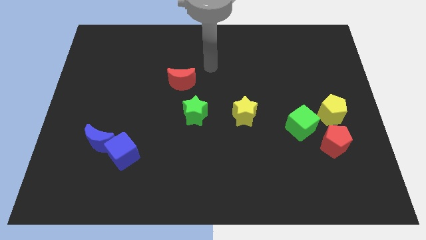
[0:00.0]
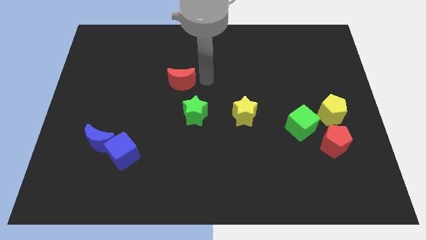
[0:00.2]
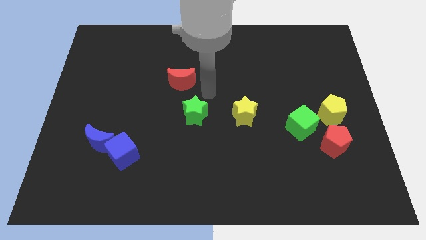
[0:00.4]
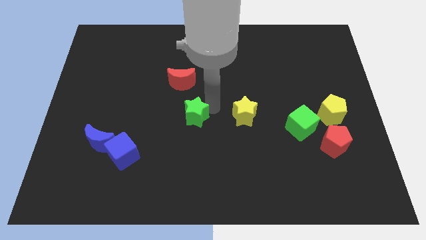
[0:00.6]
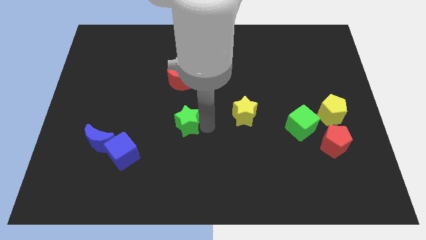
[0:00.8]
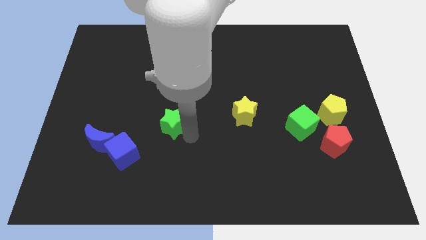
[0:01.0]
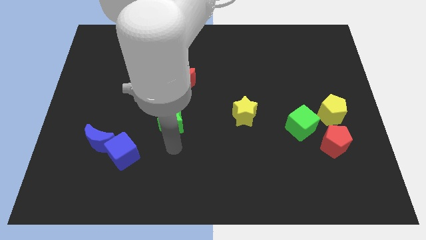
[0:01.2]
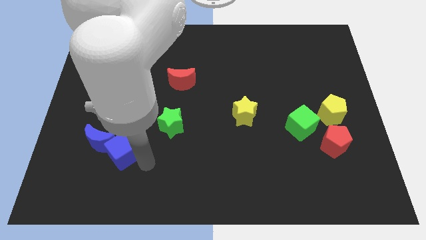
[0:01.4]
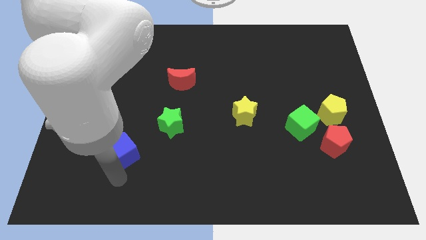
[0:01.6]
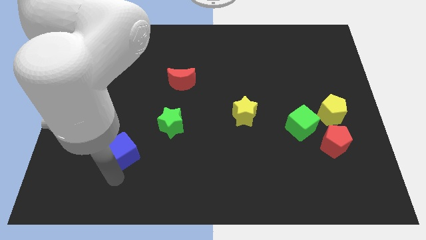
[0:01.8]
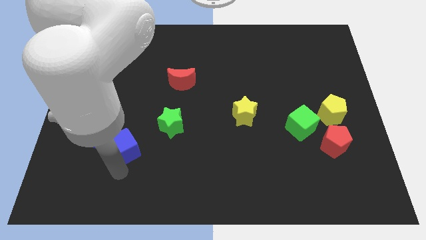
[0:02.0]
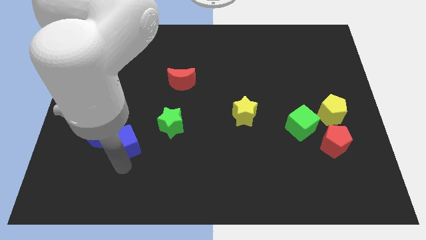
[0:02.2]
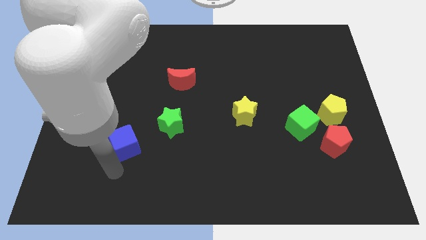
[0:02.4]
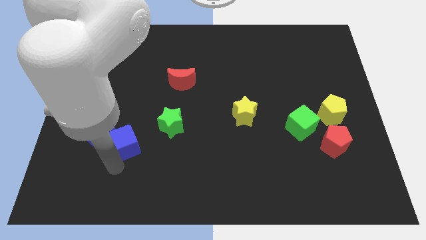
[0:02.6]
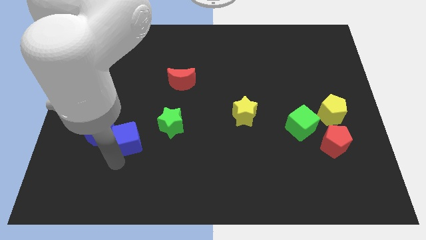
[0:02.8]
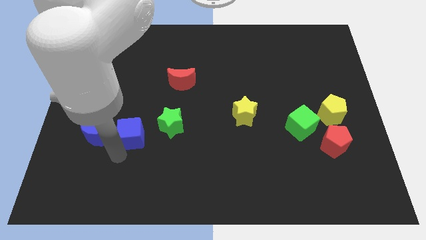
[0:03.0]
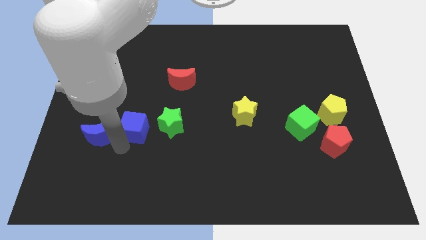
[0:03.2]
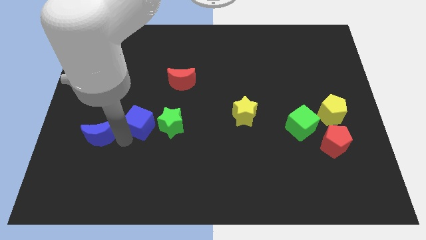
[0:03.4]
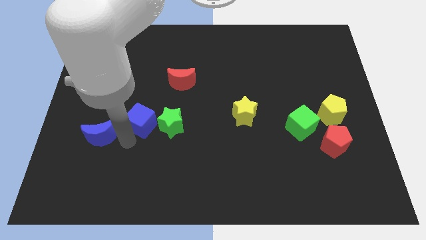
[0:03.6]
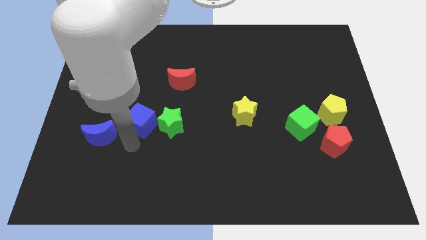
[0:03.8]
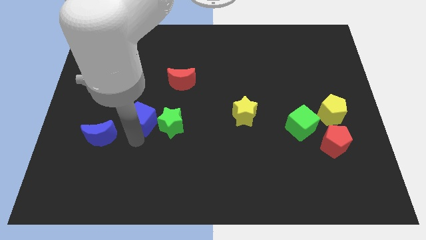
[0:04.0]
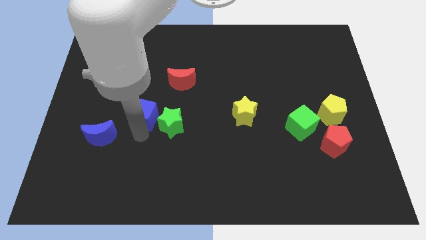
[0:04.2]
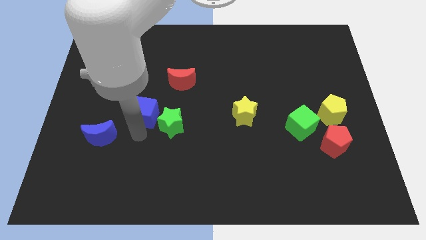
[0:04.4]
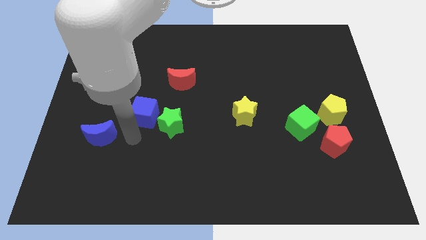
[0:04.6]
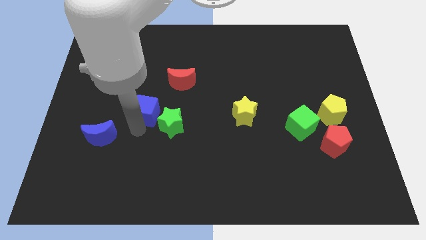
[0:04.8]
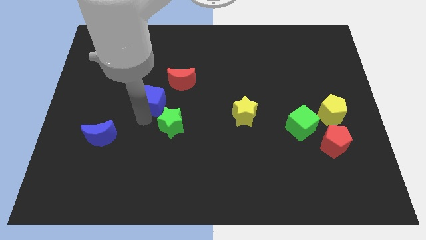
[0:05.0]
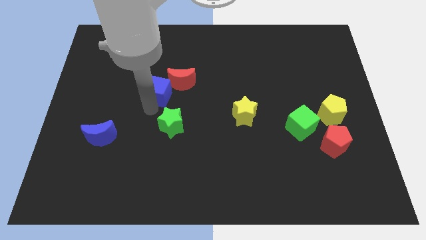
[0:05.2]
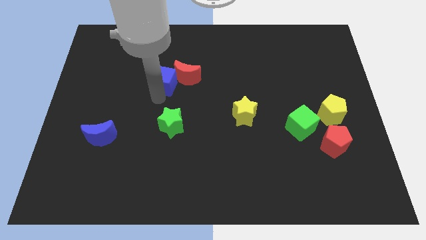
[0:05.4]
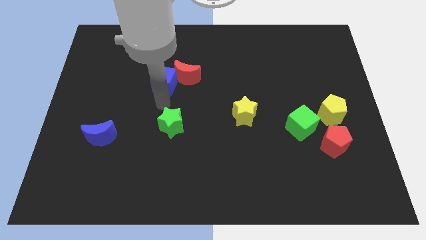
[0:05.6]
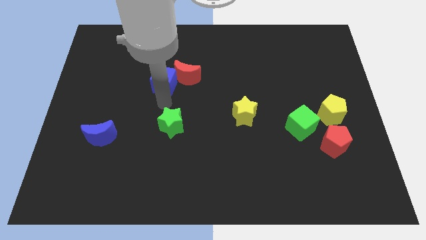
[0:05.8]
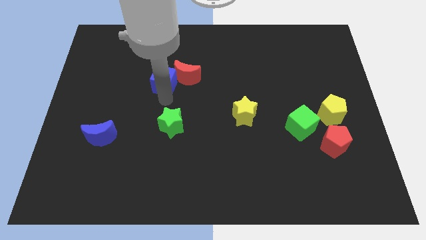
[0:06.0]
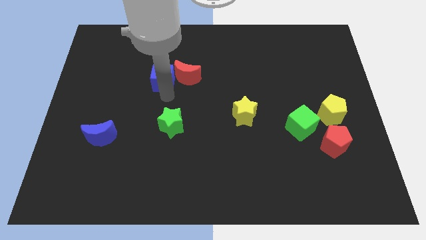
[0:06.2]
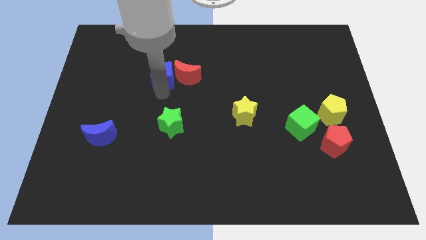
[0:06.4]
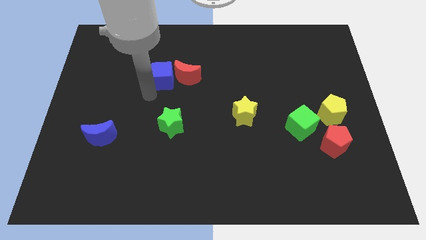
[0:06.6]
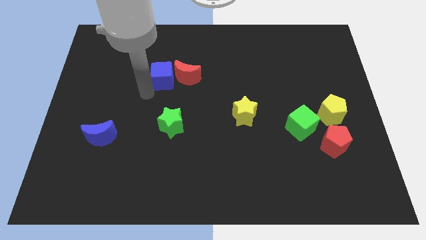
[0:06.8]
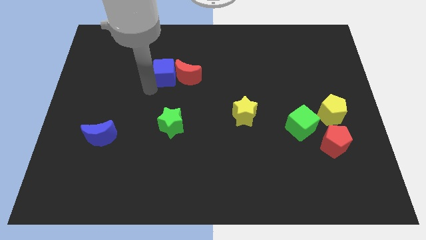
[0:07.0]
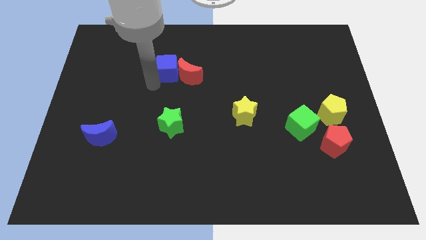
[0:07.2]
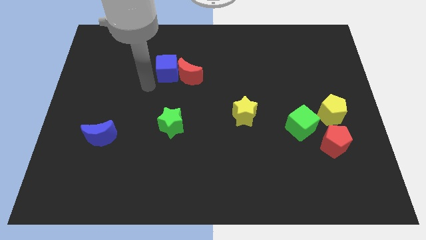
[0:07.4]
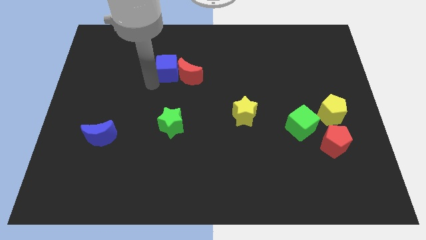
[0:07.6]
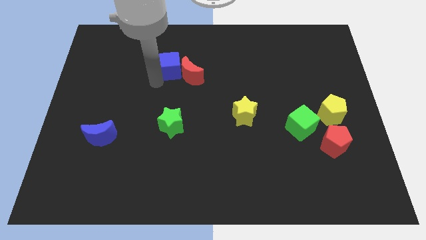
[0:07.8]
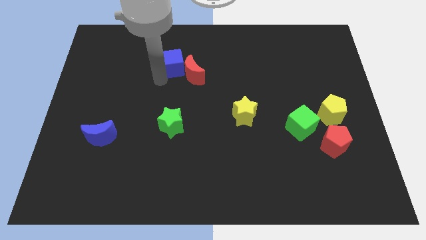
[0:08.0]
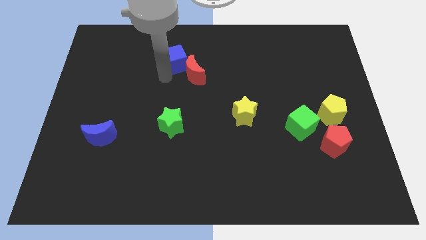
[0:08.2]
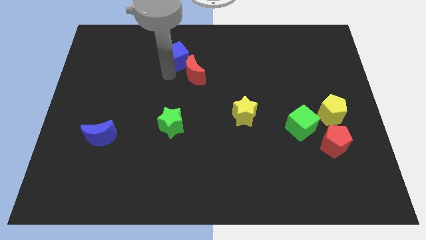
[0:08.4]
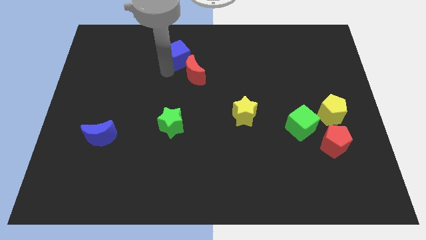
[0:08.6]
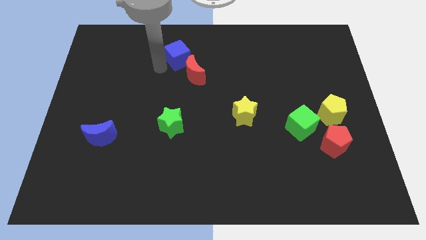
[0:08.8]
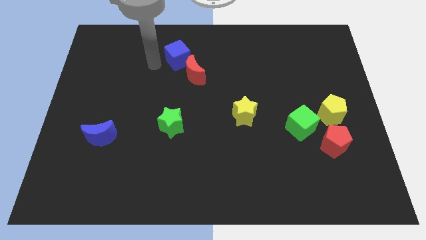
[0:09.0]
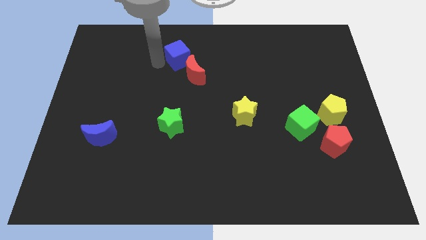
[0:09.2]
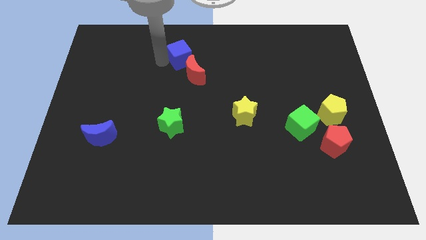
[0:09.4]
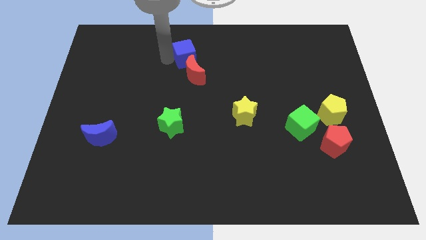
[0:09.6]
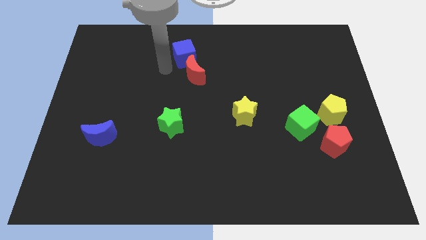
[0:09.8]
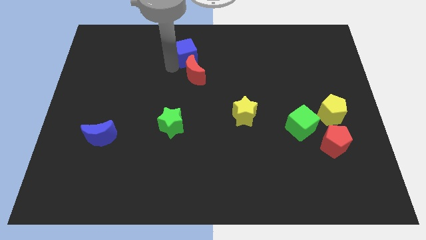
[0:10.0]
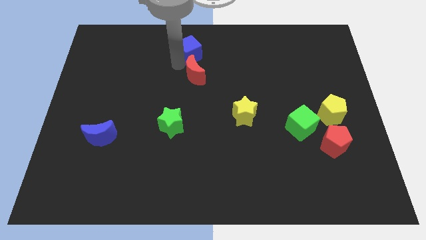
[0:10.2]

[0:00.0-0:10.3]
move the blue cube to the top

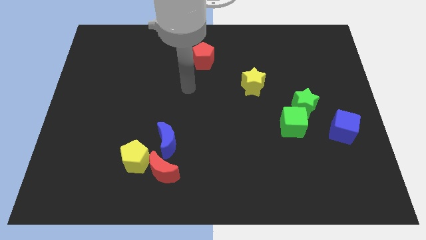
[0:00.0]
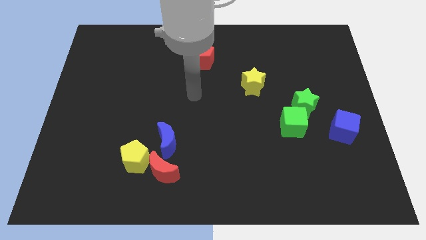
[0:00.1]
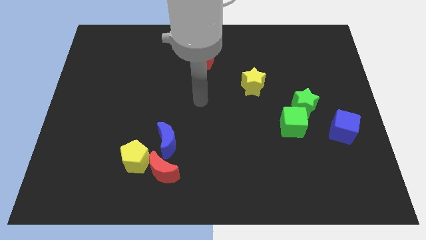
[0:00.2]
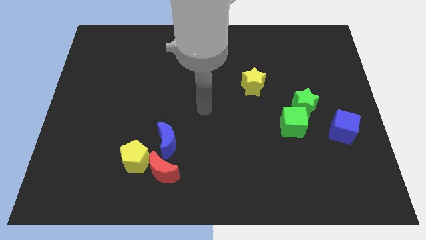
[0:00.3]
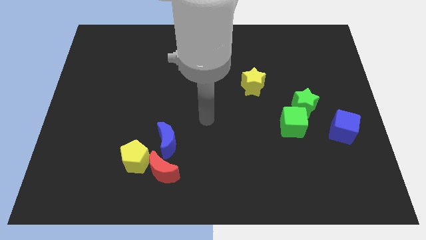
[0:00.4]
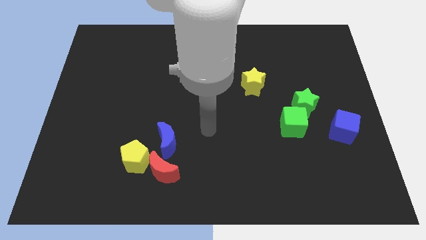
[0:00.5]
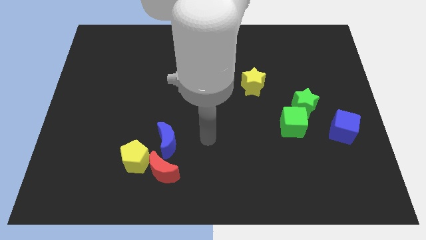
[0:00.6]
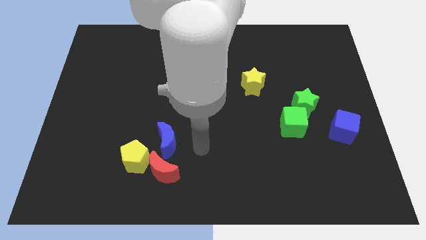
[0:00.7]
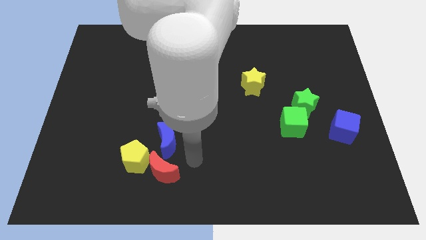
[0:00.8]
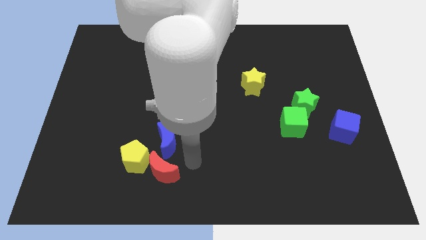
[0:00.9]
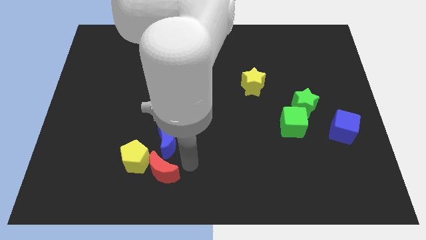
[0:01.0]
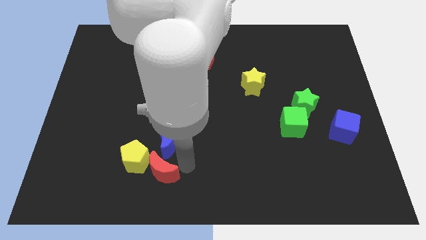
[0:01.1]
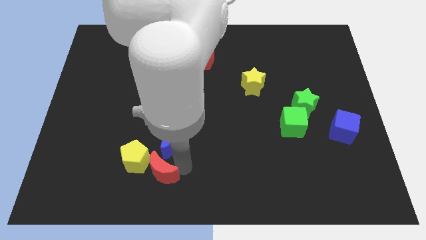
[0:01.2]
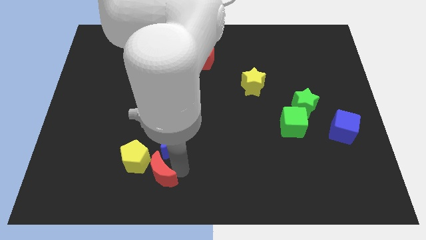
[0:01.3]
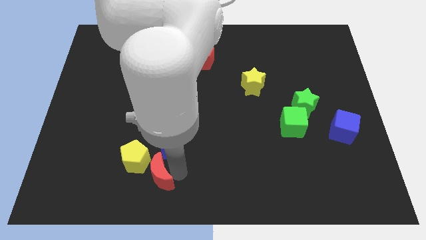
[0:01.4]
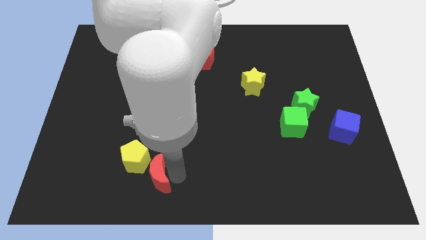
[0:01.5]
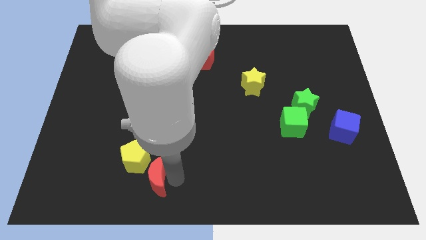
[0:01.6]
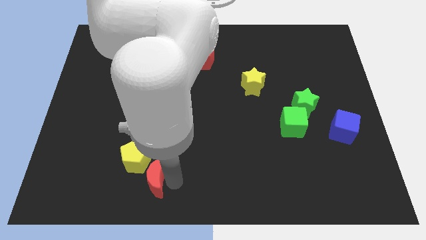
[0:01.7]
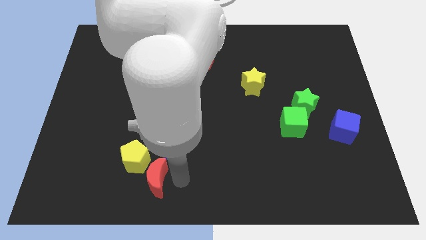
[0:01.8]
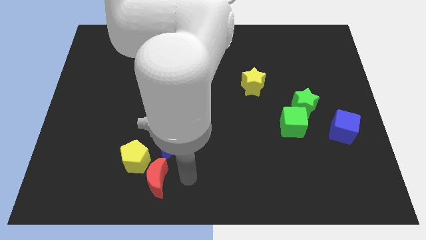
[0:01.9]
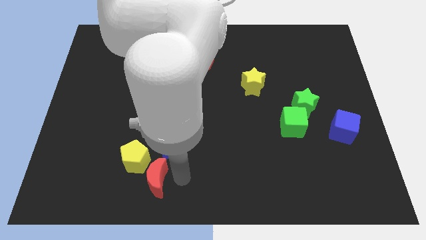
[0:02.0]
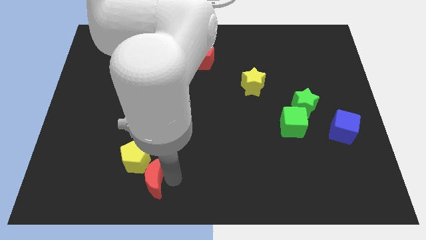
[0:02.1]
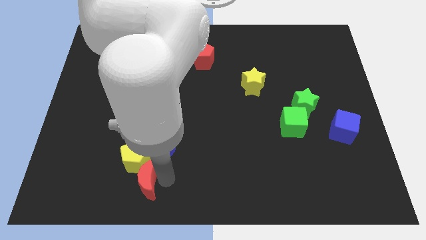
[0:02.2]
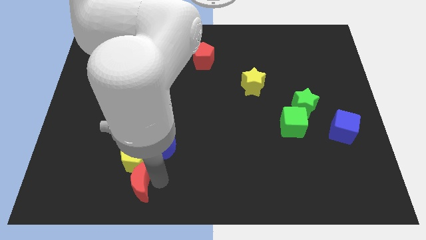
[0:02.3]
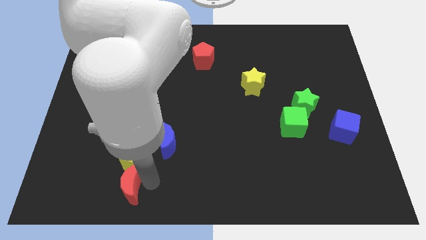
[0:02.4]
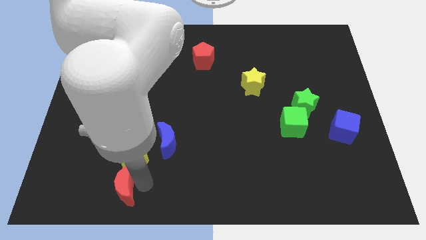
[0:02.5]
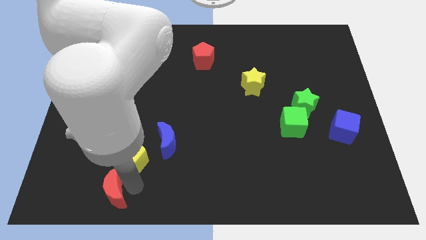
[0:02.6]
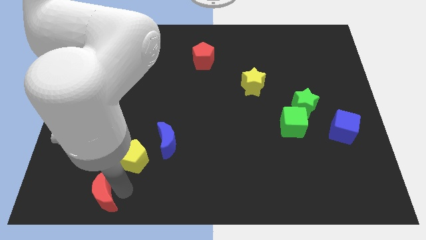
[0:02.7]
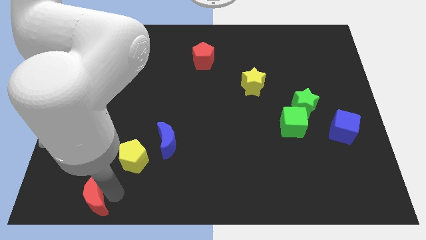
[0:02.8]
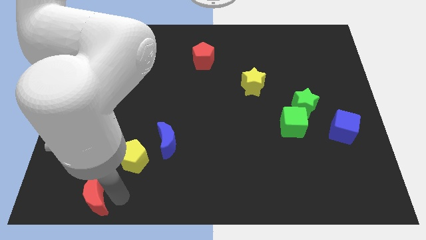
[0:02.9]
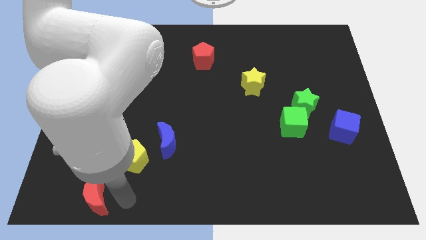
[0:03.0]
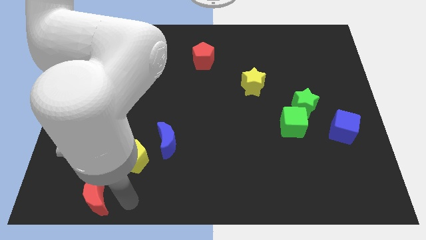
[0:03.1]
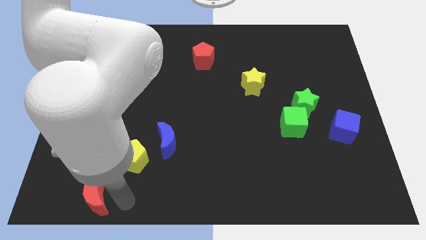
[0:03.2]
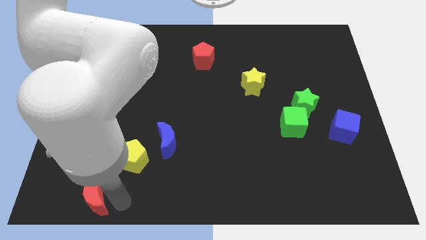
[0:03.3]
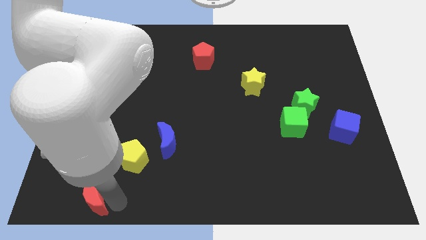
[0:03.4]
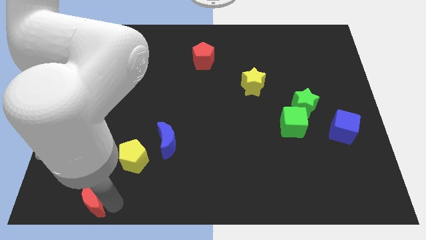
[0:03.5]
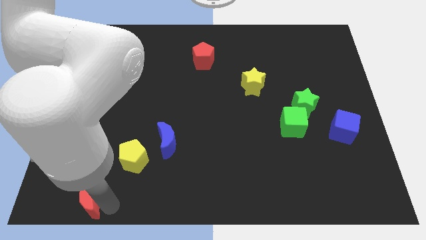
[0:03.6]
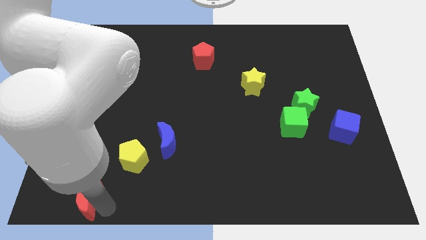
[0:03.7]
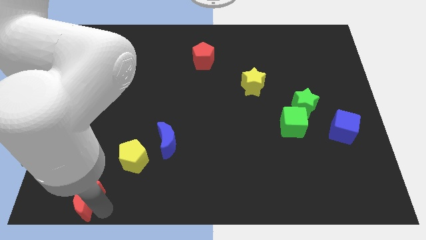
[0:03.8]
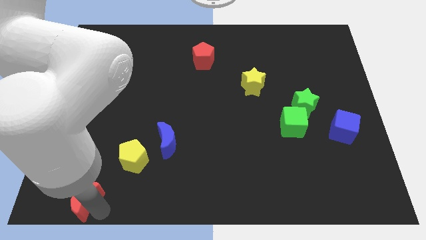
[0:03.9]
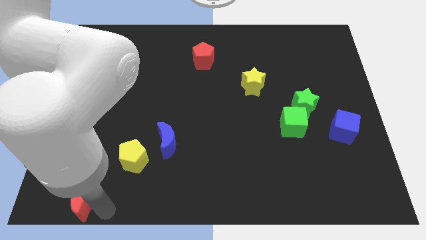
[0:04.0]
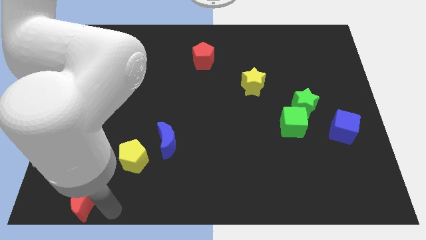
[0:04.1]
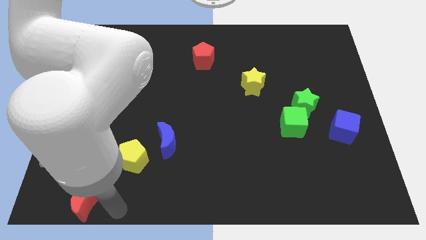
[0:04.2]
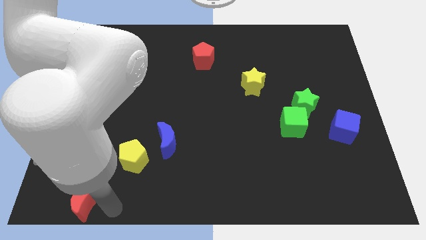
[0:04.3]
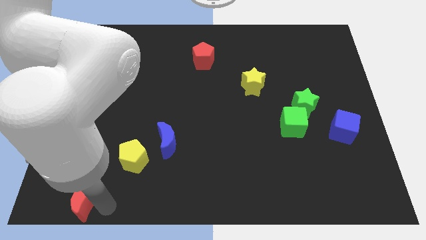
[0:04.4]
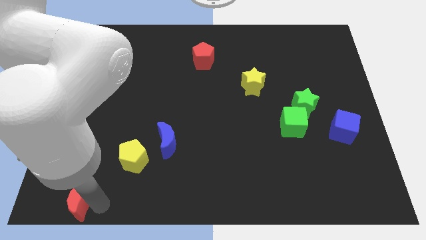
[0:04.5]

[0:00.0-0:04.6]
put the red moon to the lower left corner
